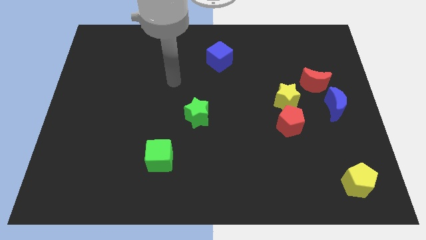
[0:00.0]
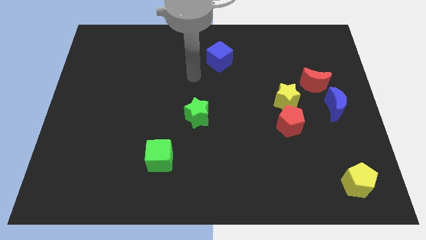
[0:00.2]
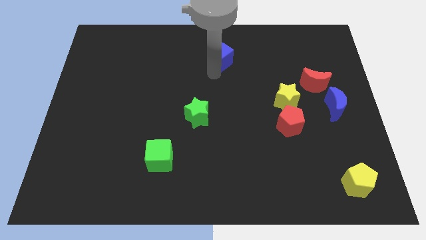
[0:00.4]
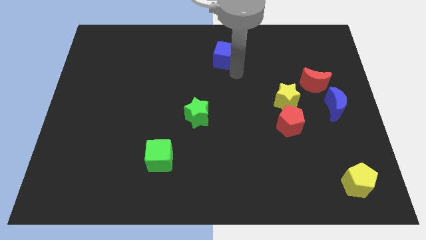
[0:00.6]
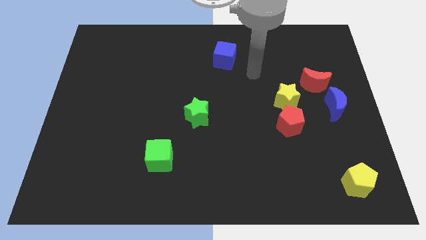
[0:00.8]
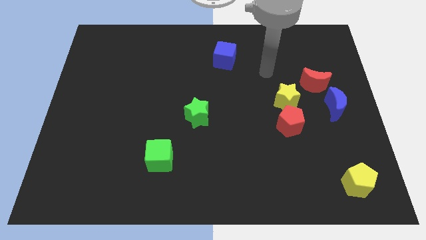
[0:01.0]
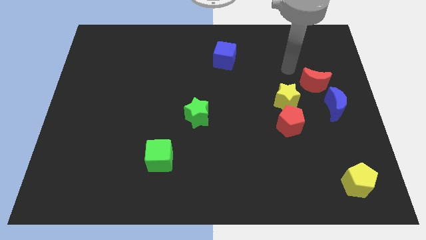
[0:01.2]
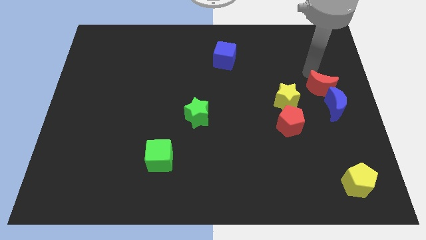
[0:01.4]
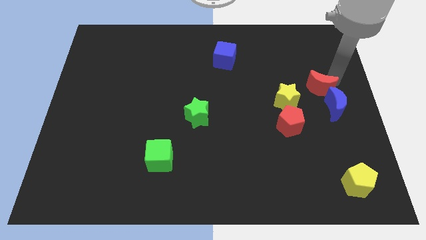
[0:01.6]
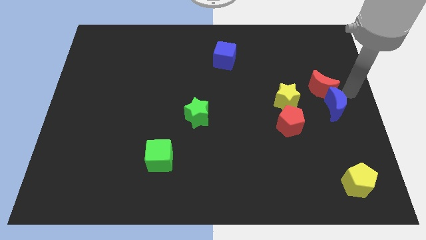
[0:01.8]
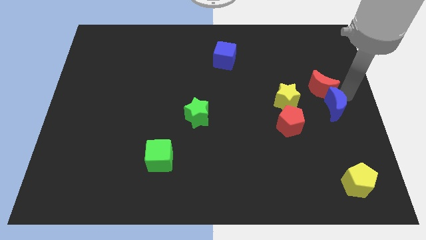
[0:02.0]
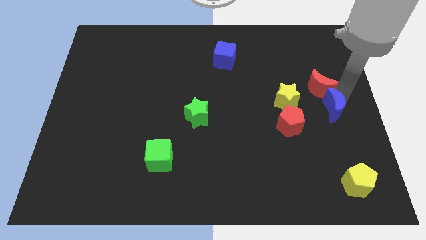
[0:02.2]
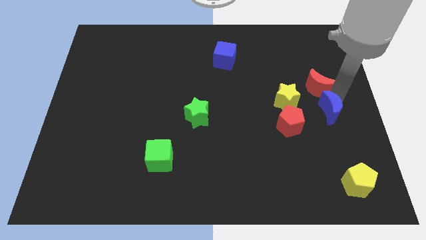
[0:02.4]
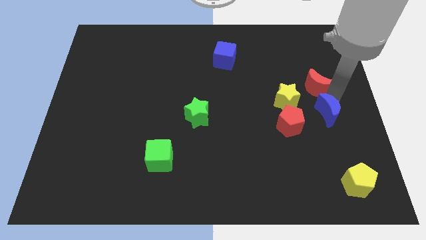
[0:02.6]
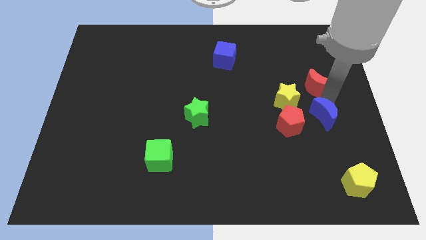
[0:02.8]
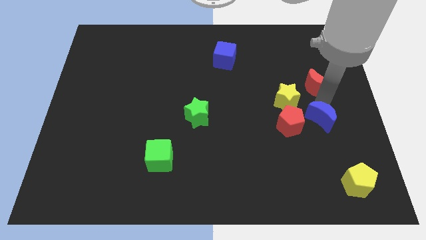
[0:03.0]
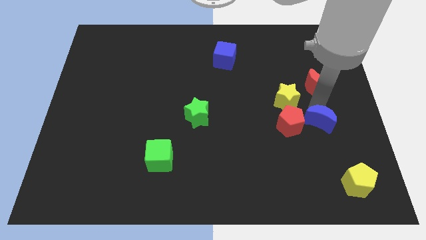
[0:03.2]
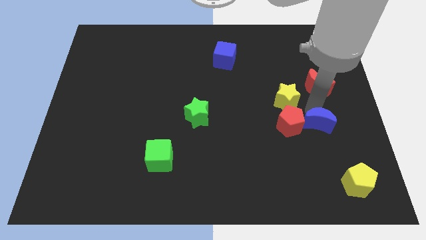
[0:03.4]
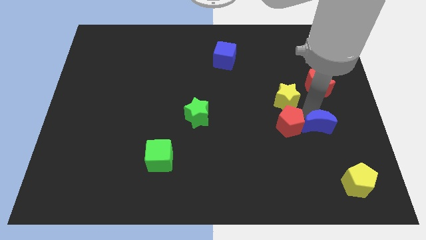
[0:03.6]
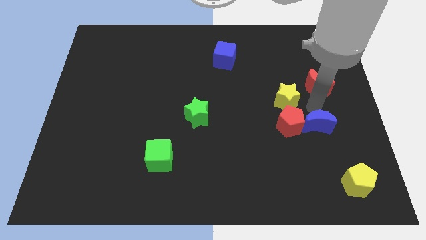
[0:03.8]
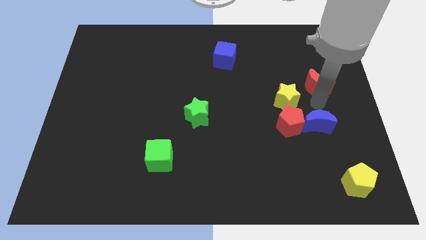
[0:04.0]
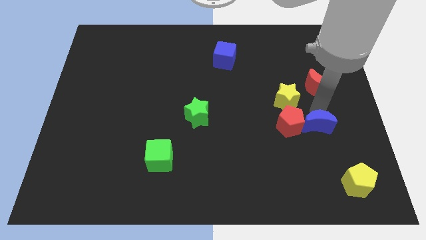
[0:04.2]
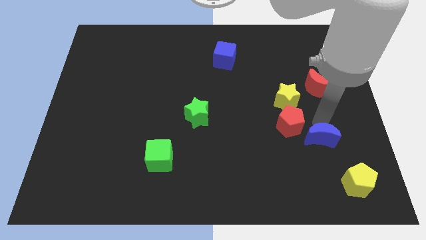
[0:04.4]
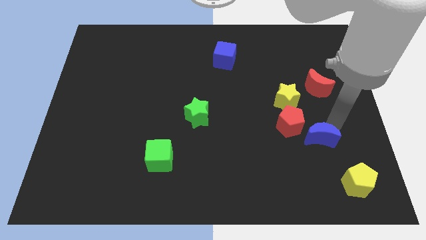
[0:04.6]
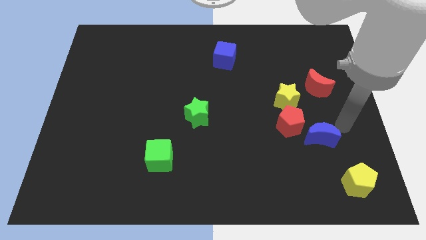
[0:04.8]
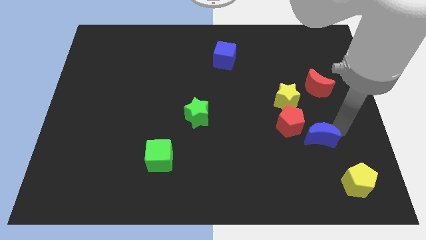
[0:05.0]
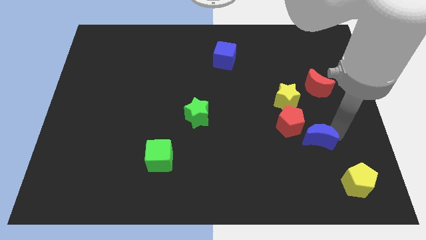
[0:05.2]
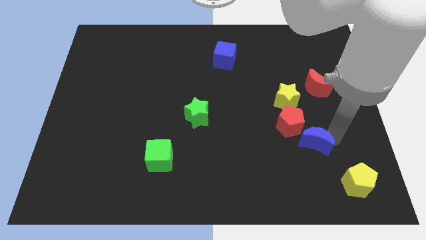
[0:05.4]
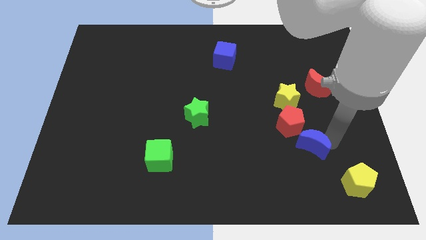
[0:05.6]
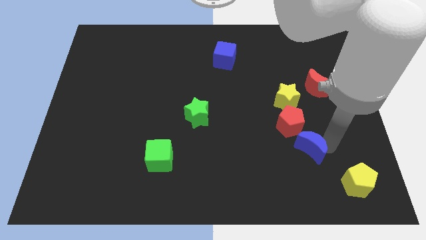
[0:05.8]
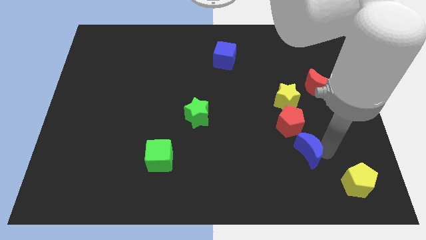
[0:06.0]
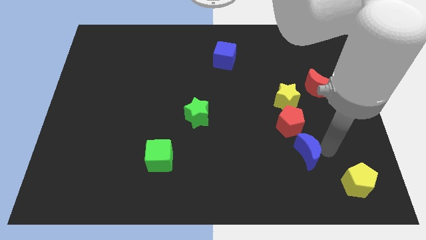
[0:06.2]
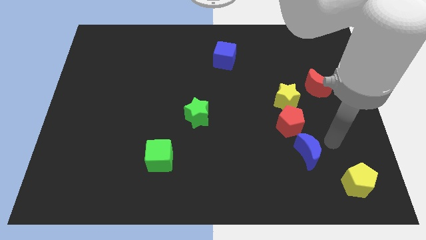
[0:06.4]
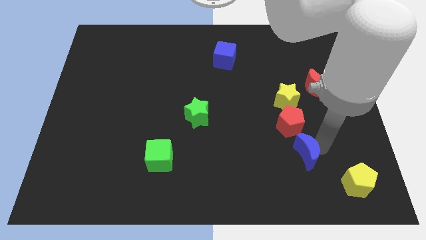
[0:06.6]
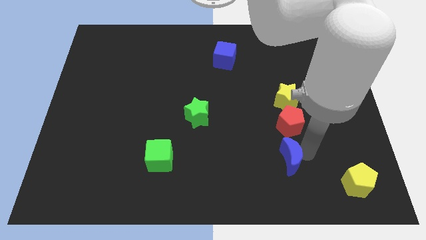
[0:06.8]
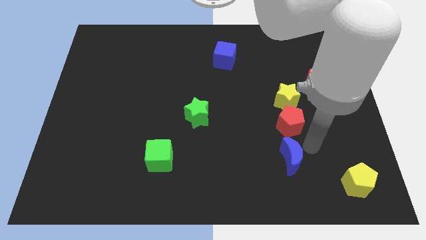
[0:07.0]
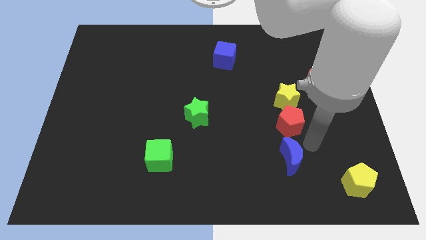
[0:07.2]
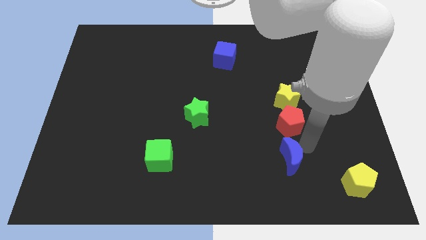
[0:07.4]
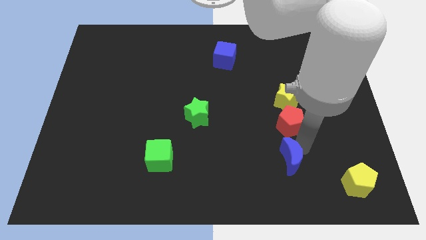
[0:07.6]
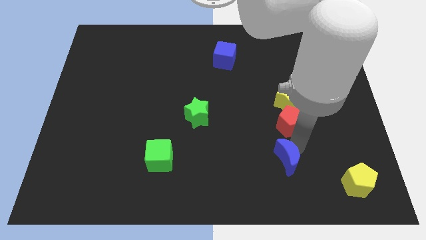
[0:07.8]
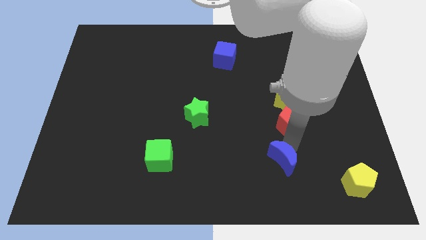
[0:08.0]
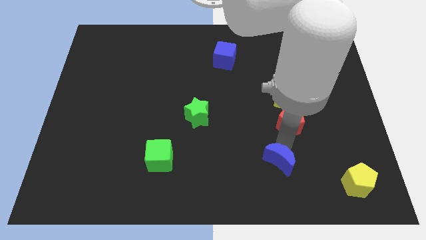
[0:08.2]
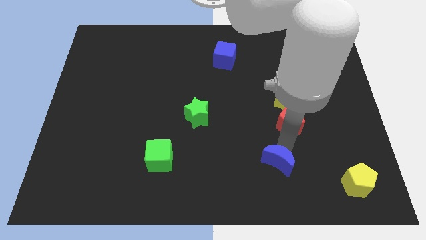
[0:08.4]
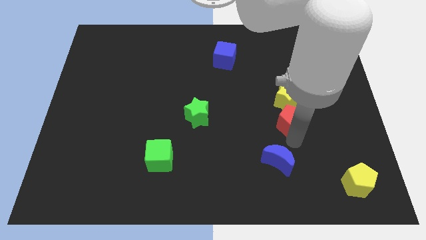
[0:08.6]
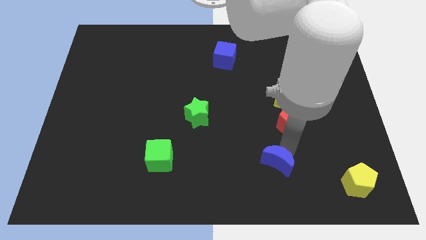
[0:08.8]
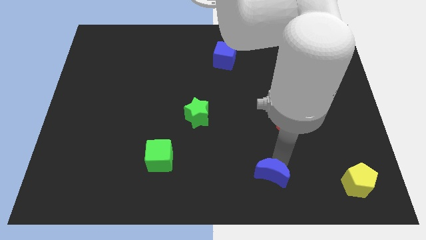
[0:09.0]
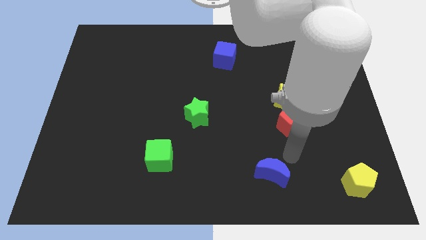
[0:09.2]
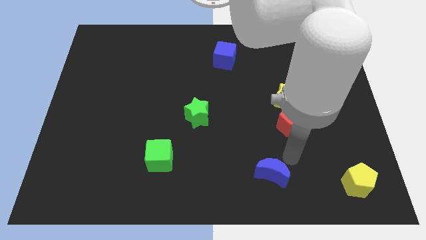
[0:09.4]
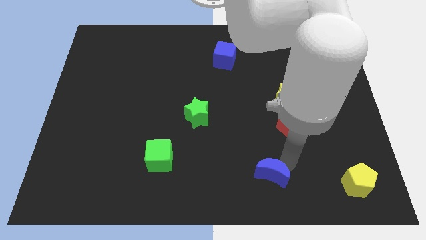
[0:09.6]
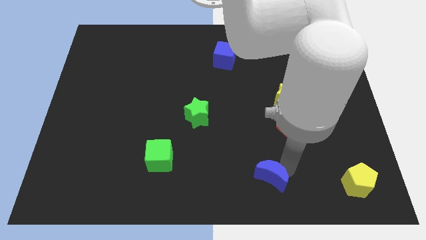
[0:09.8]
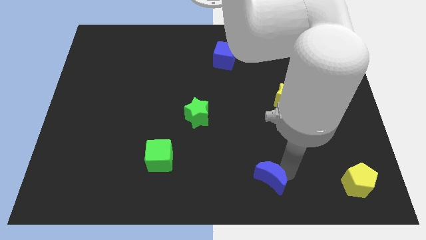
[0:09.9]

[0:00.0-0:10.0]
slide the blue moon to the bottom
